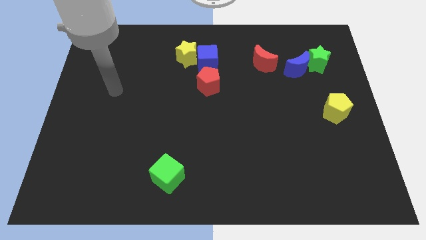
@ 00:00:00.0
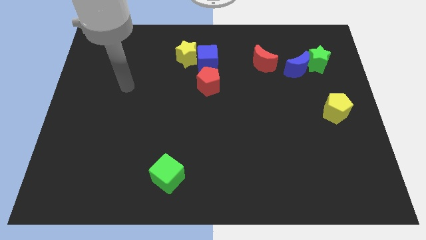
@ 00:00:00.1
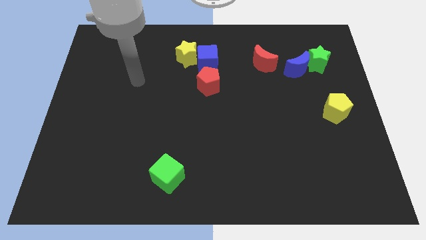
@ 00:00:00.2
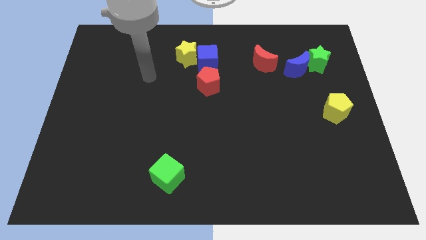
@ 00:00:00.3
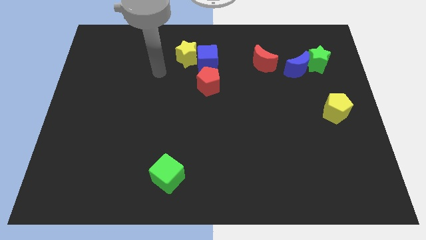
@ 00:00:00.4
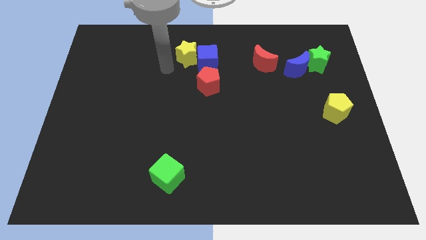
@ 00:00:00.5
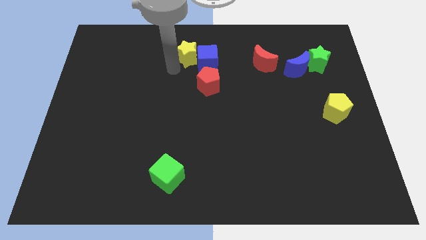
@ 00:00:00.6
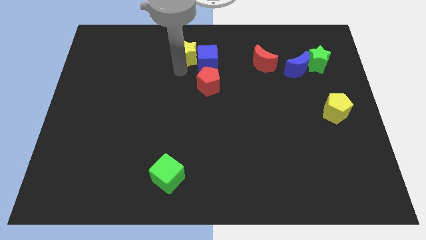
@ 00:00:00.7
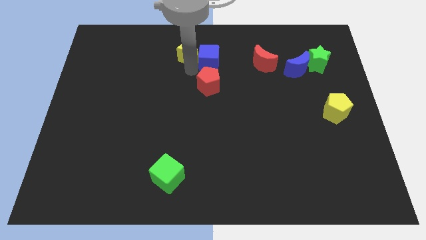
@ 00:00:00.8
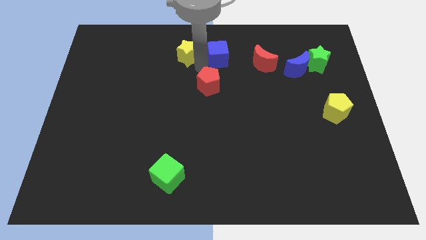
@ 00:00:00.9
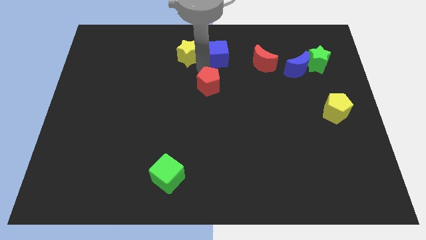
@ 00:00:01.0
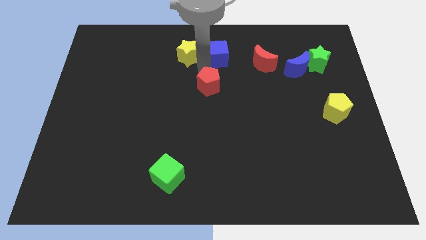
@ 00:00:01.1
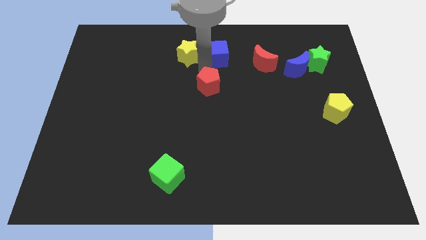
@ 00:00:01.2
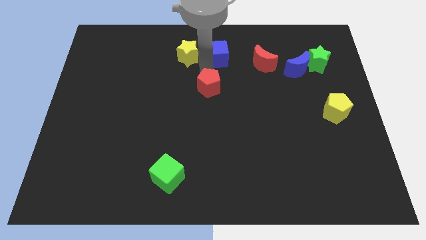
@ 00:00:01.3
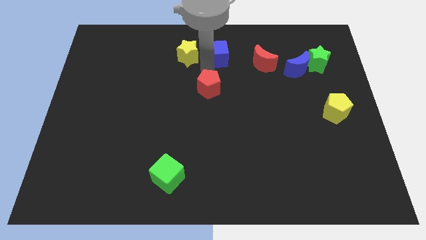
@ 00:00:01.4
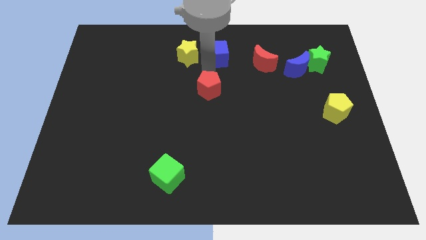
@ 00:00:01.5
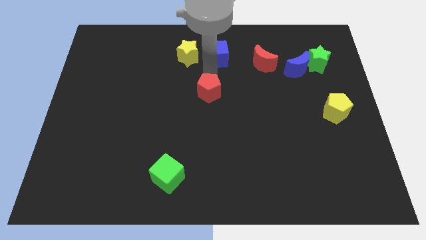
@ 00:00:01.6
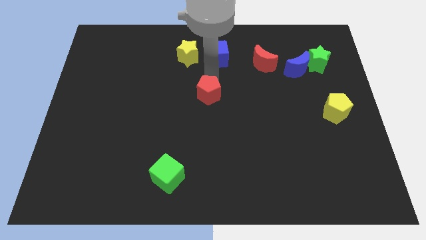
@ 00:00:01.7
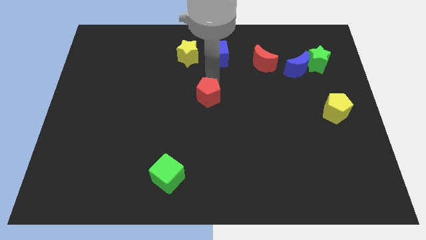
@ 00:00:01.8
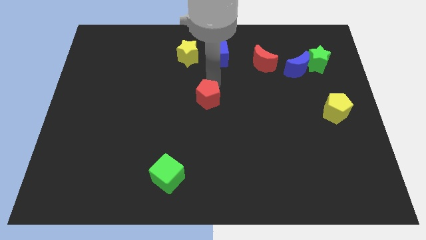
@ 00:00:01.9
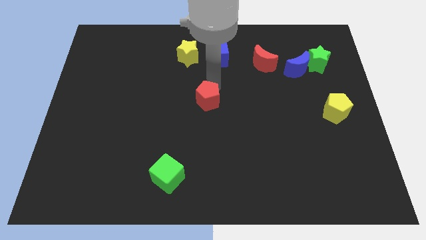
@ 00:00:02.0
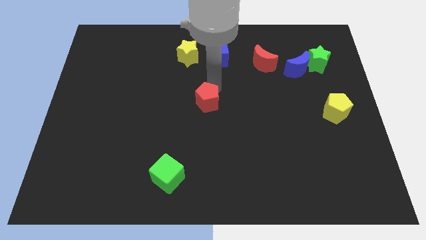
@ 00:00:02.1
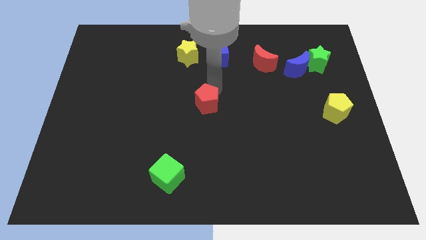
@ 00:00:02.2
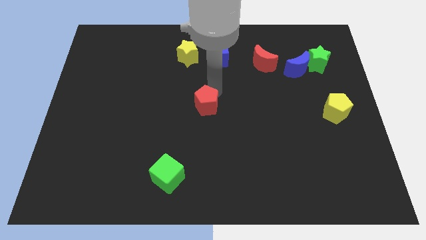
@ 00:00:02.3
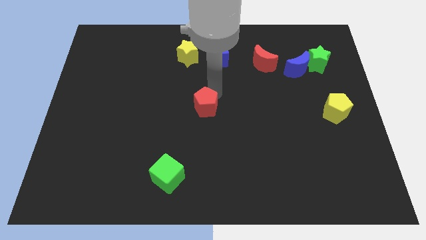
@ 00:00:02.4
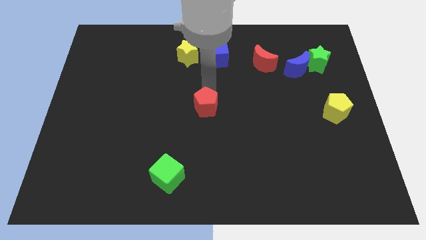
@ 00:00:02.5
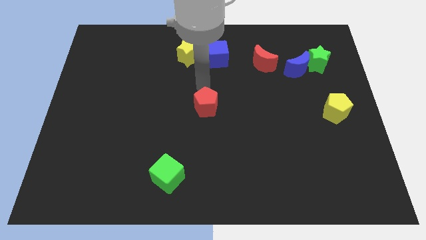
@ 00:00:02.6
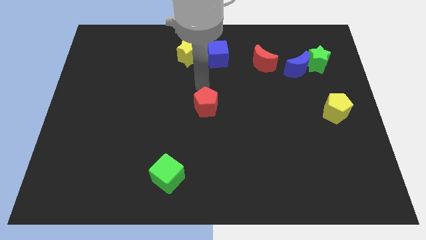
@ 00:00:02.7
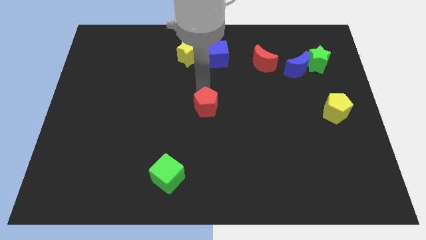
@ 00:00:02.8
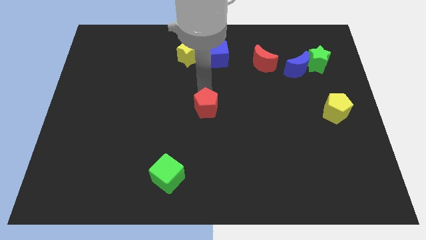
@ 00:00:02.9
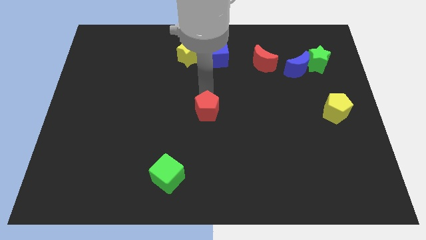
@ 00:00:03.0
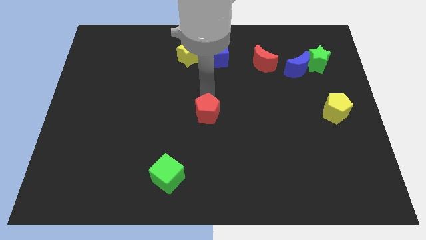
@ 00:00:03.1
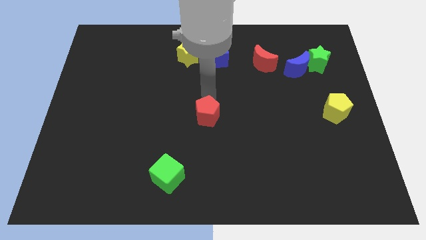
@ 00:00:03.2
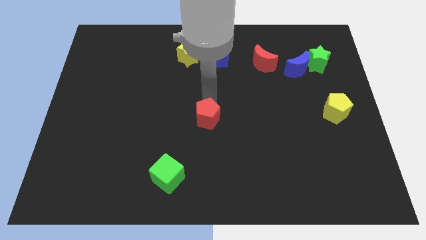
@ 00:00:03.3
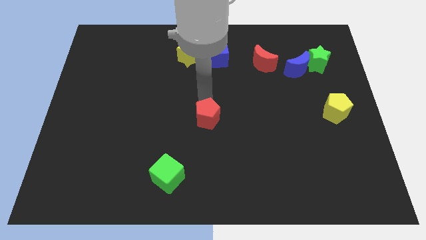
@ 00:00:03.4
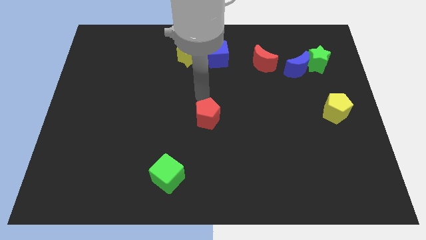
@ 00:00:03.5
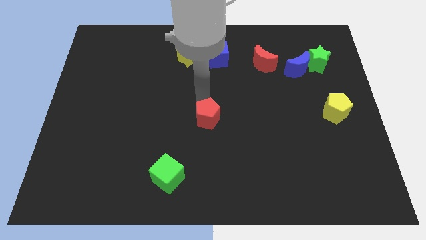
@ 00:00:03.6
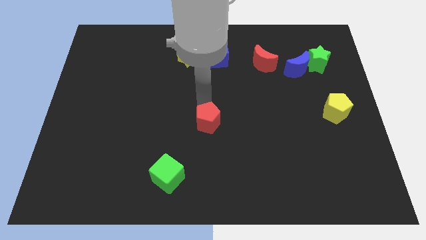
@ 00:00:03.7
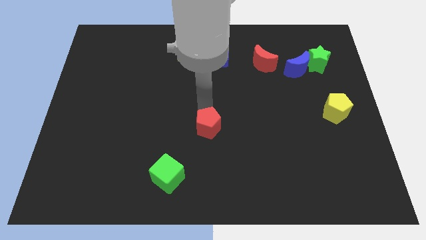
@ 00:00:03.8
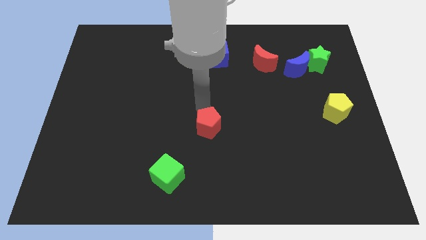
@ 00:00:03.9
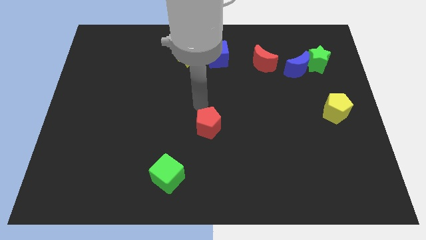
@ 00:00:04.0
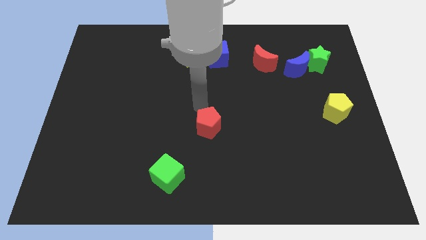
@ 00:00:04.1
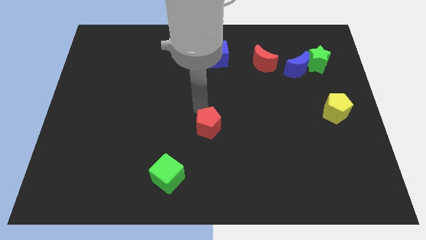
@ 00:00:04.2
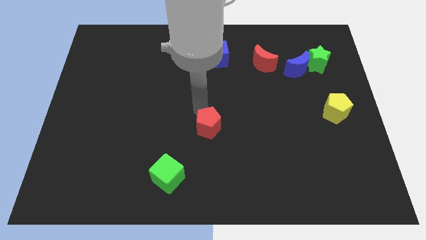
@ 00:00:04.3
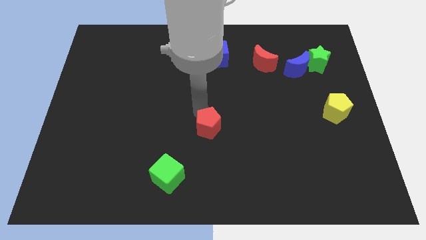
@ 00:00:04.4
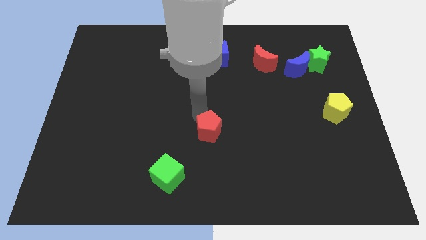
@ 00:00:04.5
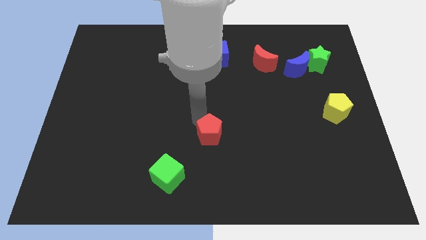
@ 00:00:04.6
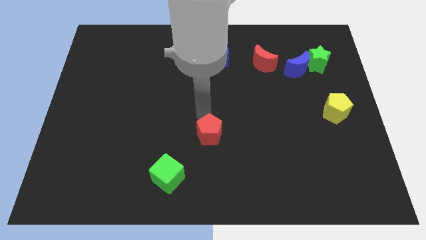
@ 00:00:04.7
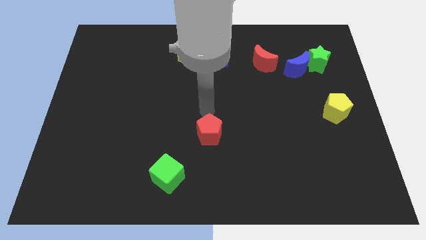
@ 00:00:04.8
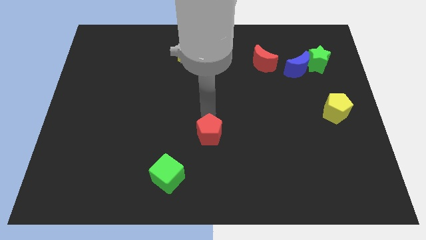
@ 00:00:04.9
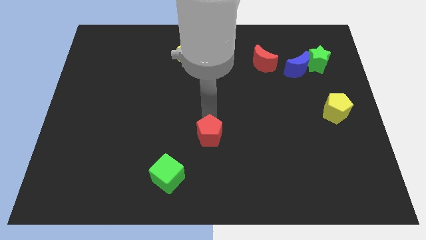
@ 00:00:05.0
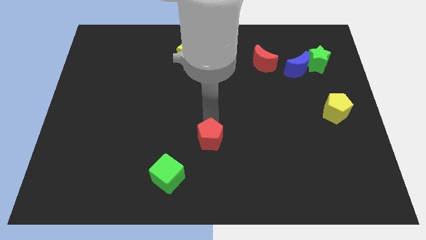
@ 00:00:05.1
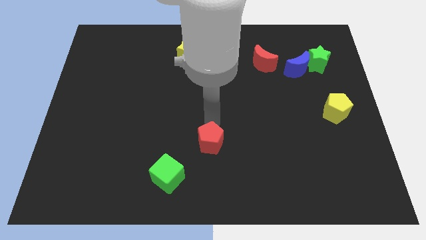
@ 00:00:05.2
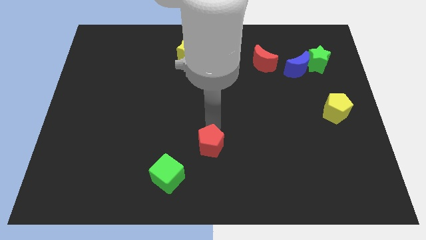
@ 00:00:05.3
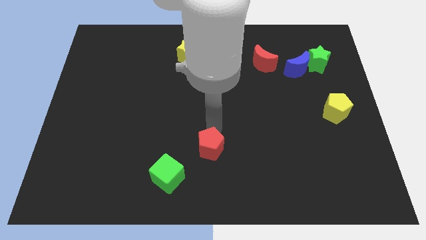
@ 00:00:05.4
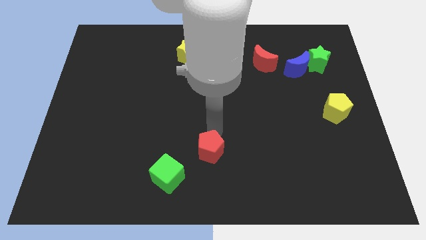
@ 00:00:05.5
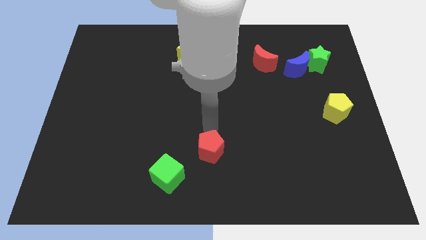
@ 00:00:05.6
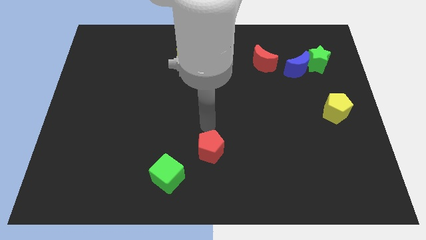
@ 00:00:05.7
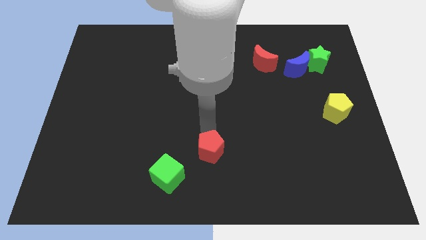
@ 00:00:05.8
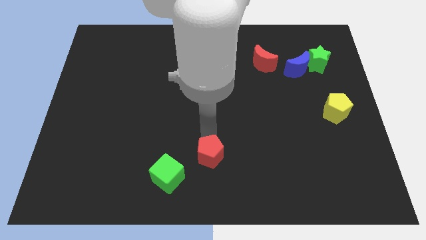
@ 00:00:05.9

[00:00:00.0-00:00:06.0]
push the red pentagon to the bottom side

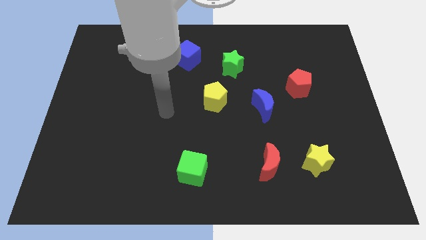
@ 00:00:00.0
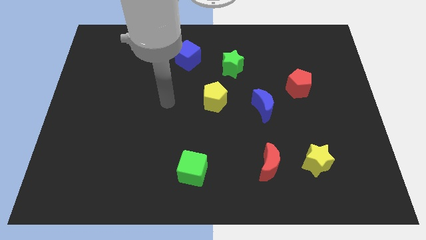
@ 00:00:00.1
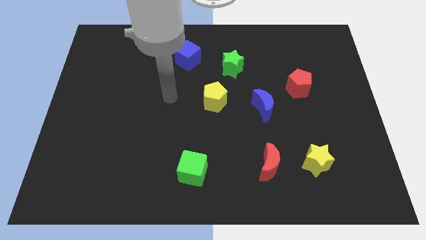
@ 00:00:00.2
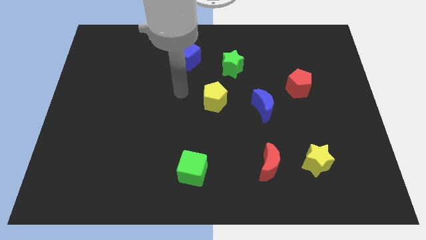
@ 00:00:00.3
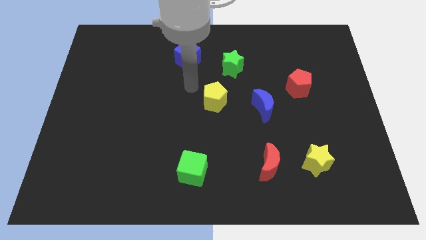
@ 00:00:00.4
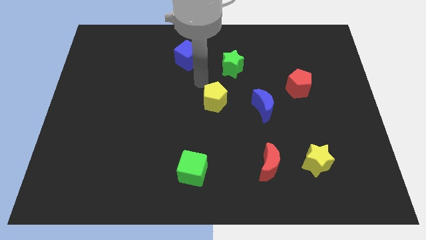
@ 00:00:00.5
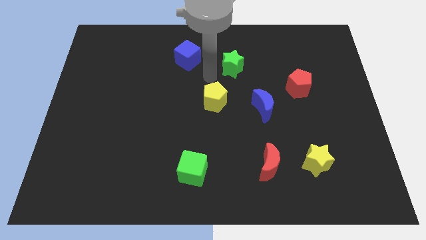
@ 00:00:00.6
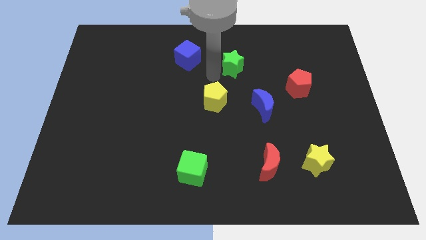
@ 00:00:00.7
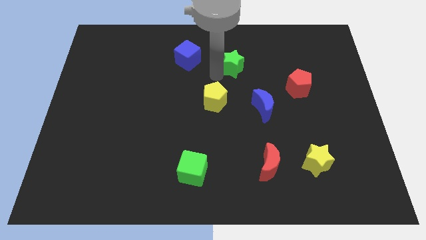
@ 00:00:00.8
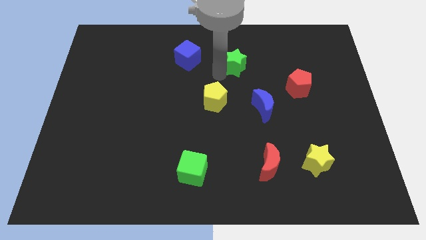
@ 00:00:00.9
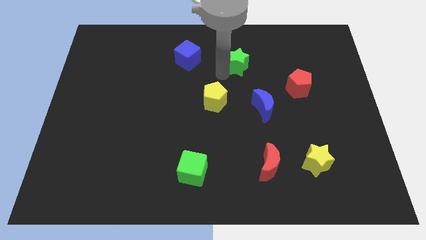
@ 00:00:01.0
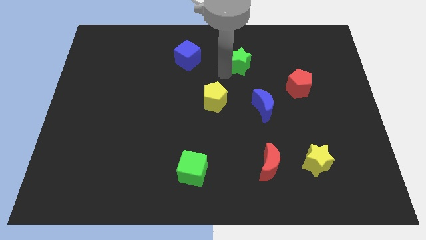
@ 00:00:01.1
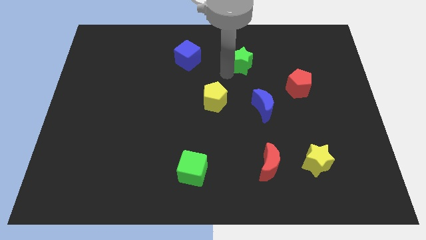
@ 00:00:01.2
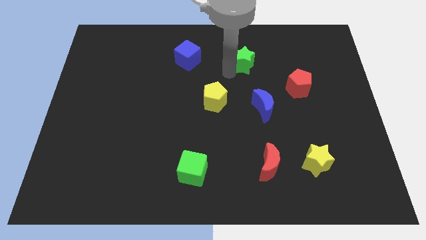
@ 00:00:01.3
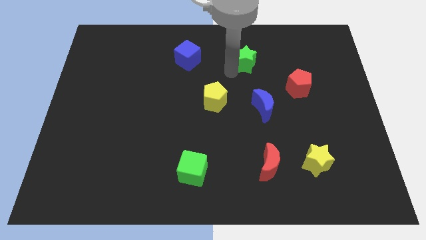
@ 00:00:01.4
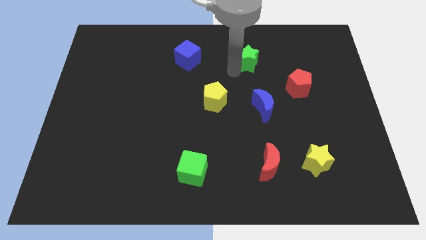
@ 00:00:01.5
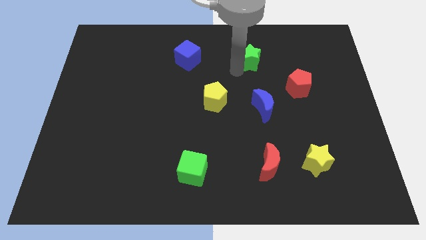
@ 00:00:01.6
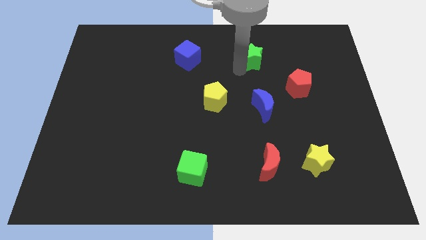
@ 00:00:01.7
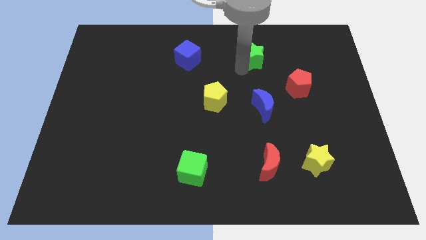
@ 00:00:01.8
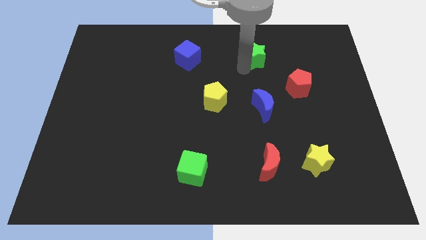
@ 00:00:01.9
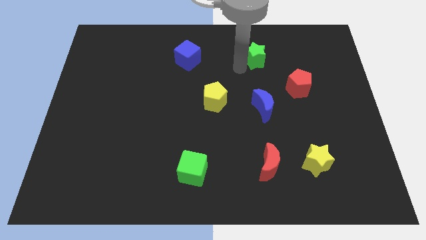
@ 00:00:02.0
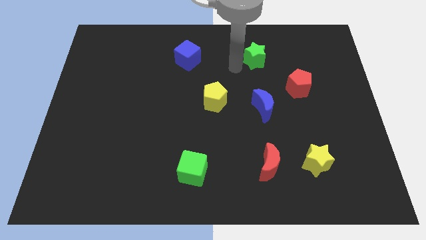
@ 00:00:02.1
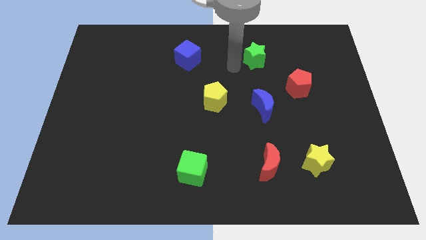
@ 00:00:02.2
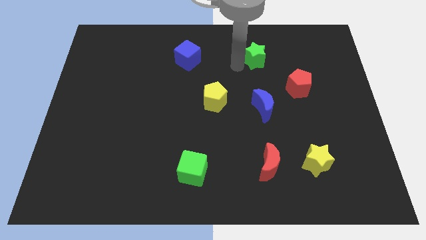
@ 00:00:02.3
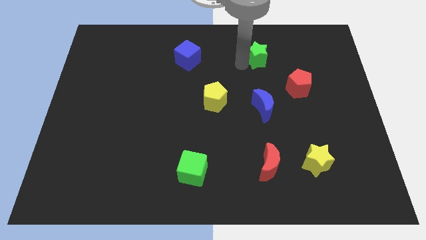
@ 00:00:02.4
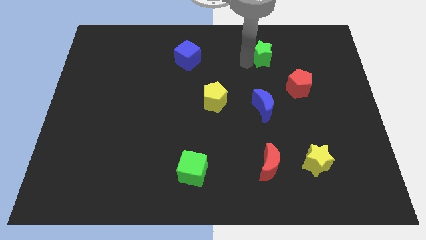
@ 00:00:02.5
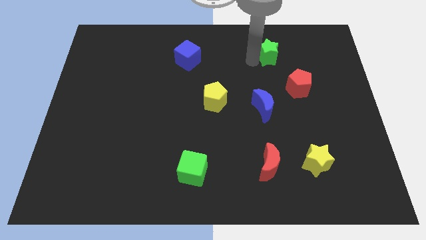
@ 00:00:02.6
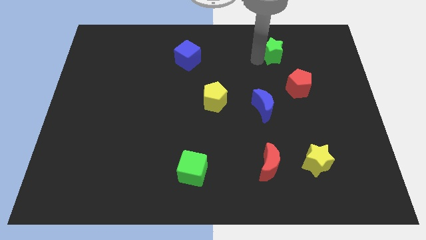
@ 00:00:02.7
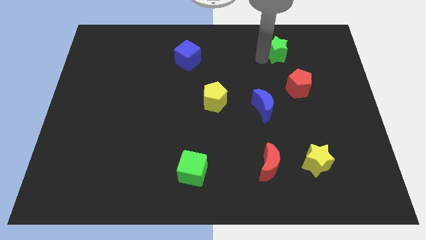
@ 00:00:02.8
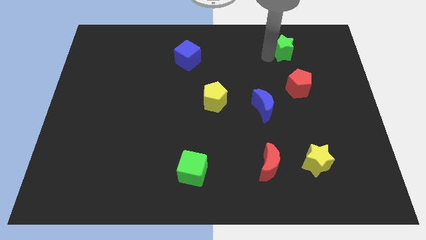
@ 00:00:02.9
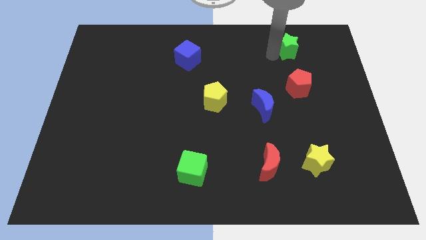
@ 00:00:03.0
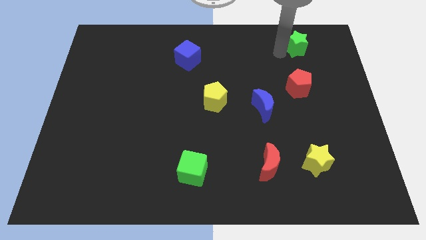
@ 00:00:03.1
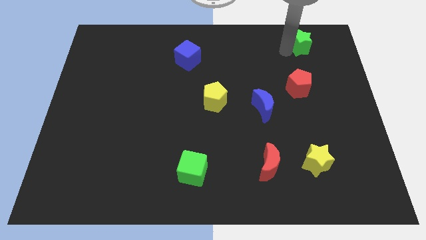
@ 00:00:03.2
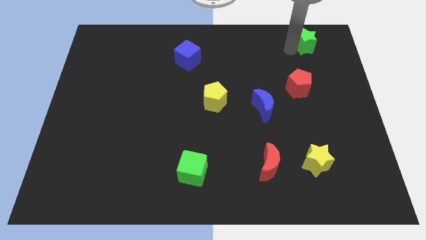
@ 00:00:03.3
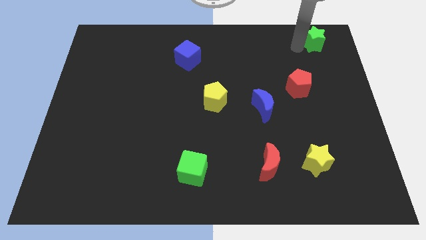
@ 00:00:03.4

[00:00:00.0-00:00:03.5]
push the green star to the top right corner
